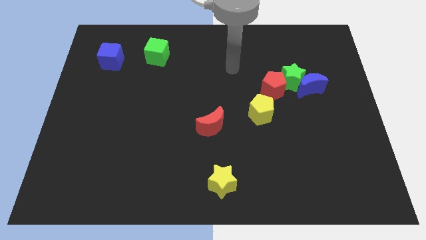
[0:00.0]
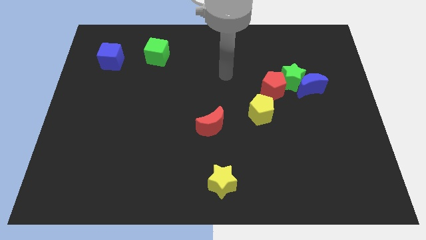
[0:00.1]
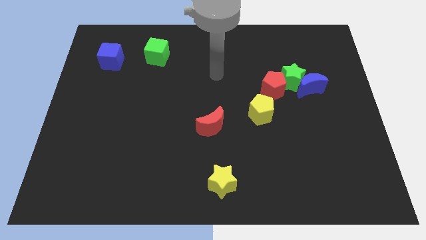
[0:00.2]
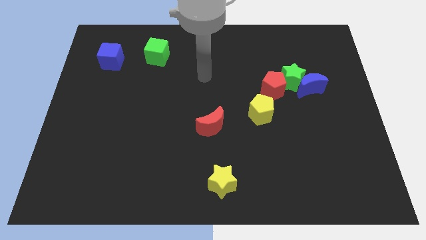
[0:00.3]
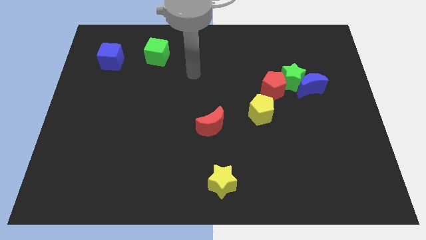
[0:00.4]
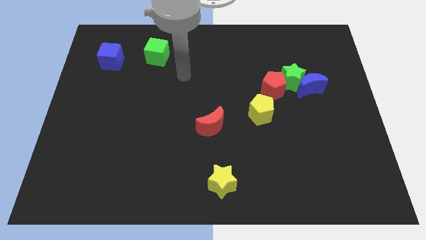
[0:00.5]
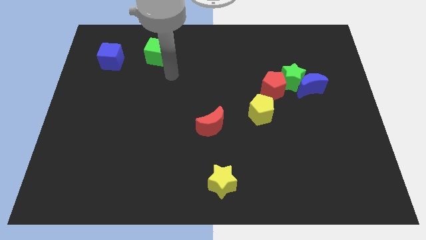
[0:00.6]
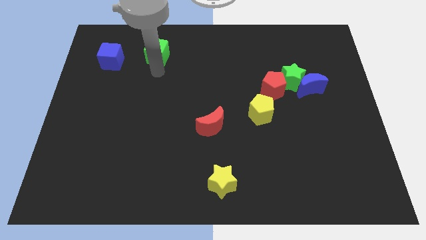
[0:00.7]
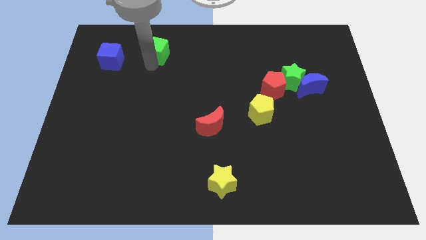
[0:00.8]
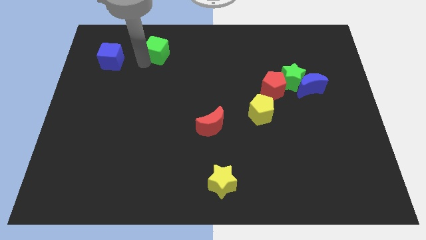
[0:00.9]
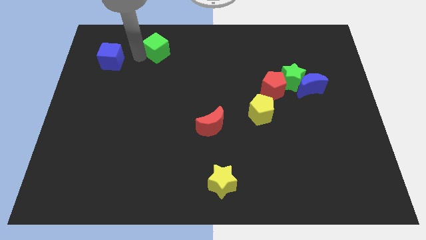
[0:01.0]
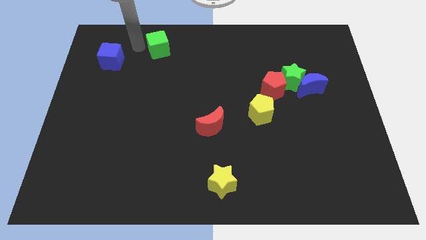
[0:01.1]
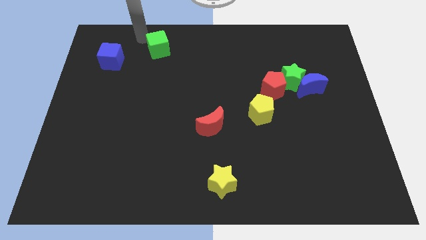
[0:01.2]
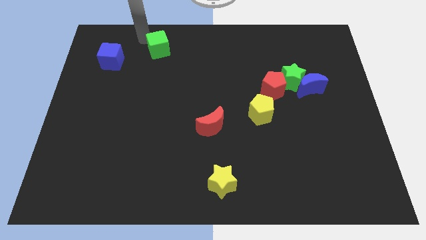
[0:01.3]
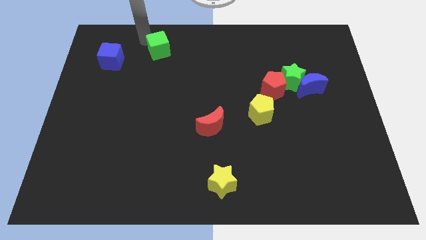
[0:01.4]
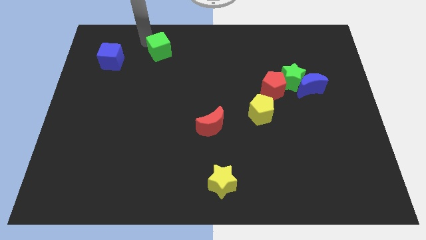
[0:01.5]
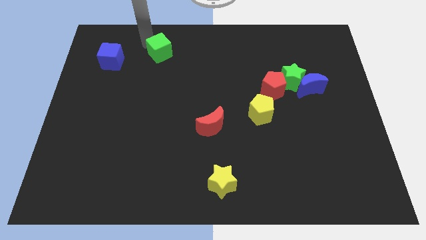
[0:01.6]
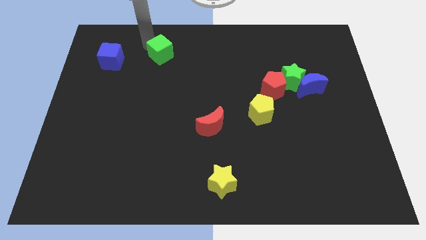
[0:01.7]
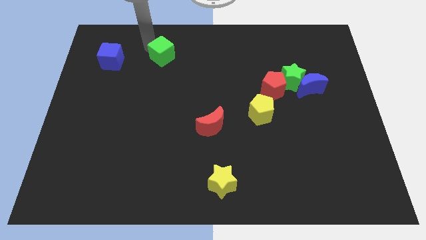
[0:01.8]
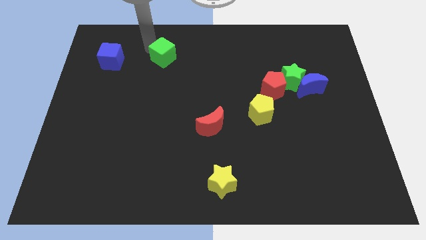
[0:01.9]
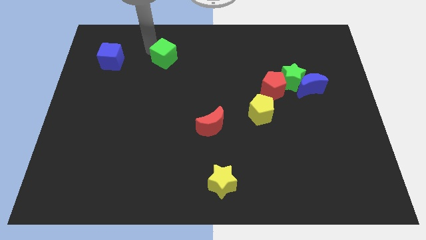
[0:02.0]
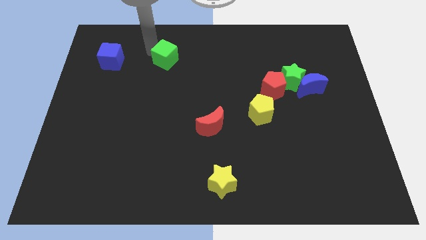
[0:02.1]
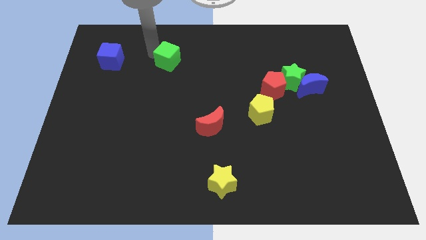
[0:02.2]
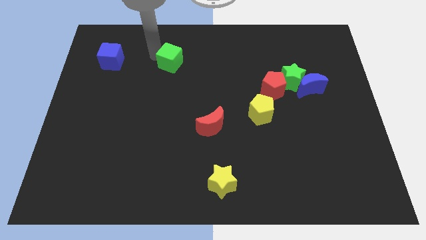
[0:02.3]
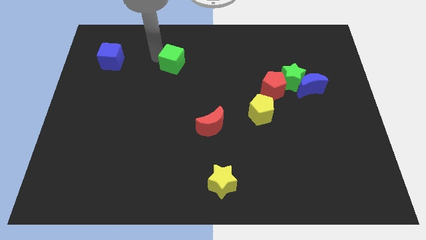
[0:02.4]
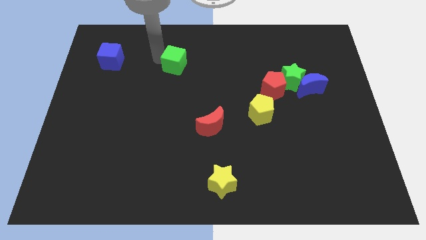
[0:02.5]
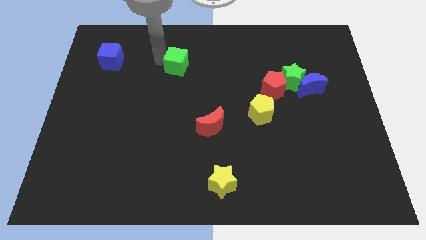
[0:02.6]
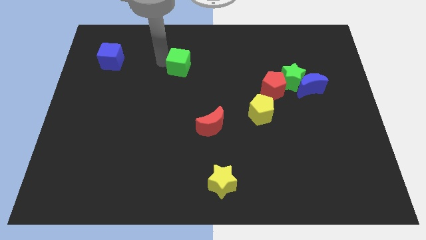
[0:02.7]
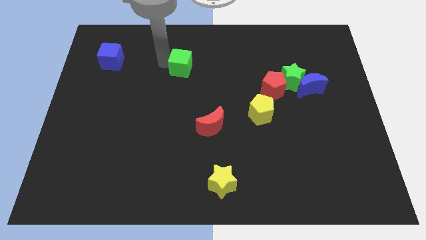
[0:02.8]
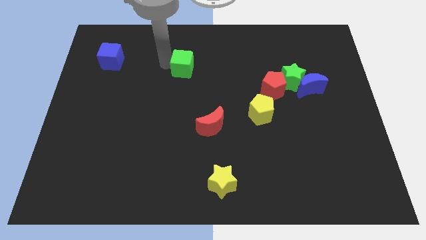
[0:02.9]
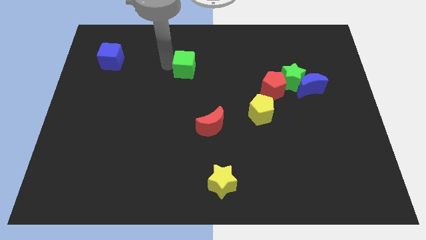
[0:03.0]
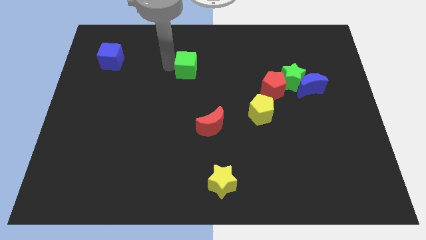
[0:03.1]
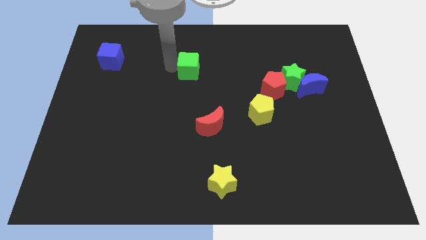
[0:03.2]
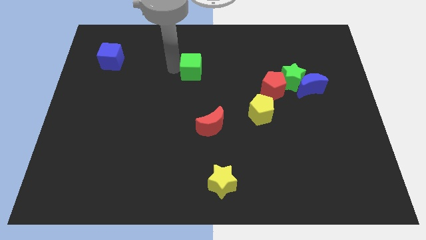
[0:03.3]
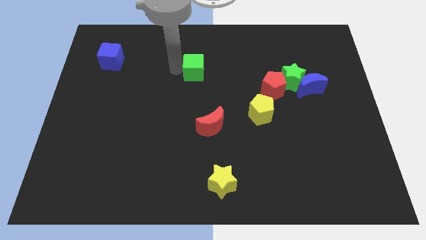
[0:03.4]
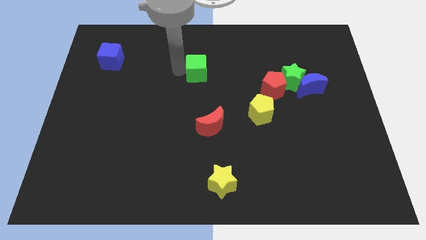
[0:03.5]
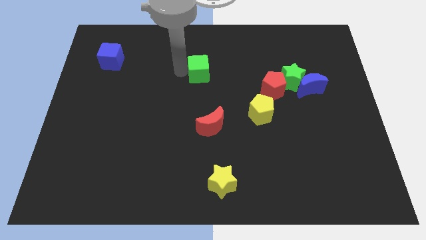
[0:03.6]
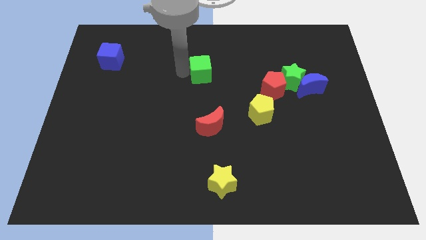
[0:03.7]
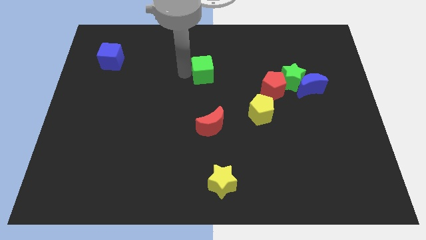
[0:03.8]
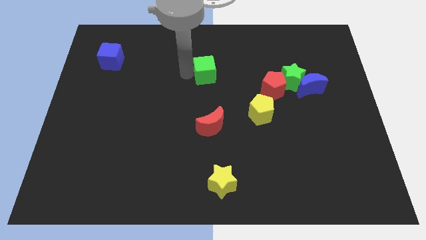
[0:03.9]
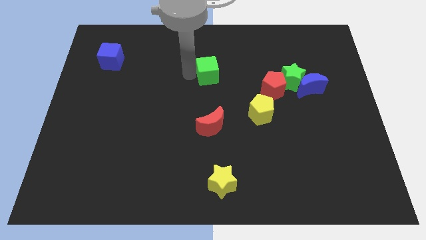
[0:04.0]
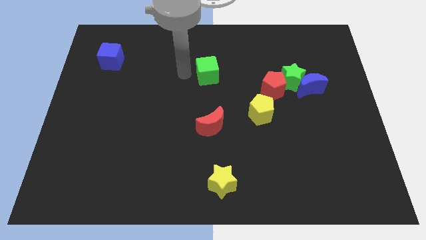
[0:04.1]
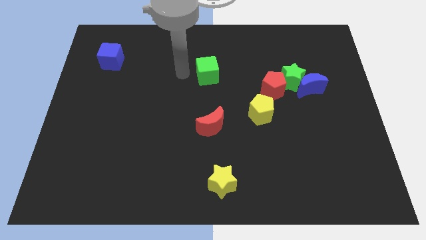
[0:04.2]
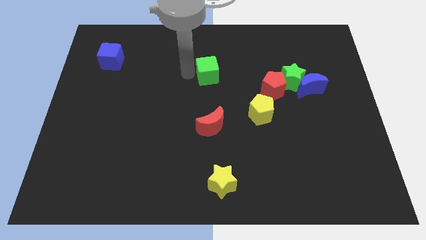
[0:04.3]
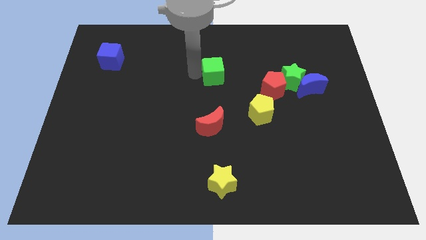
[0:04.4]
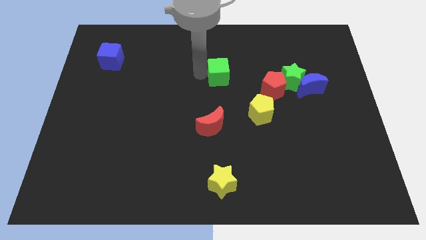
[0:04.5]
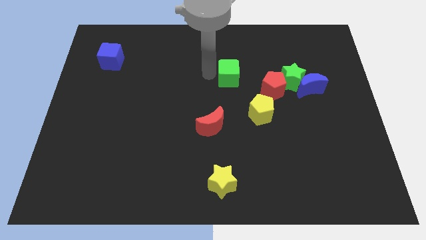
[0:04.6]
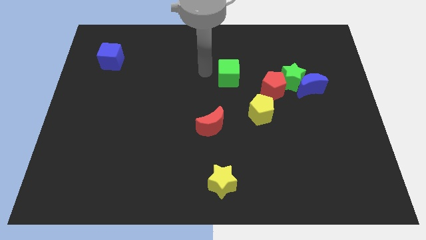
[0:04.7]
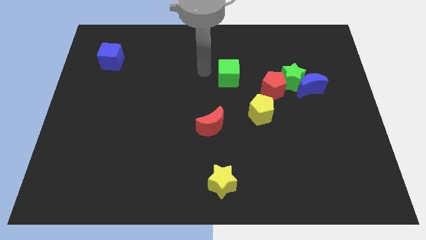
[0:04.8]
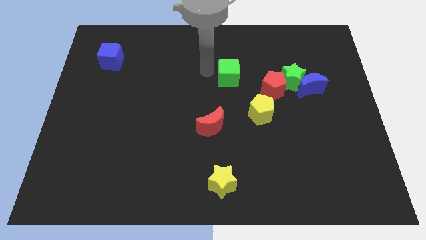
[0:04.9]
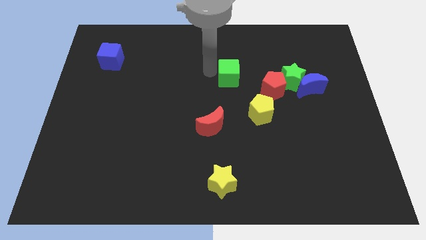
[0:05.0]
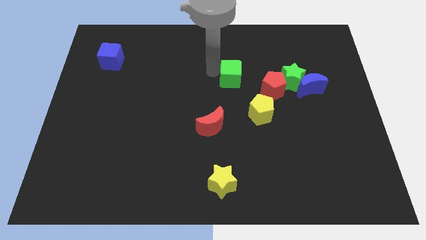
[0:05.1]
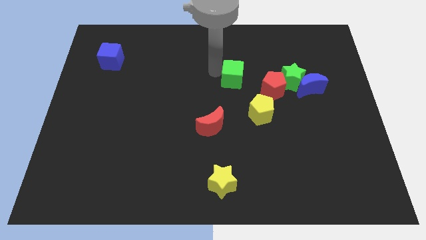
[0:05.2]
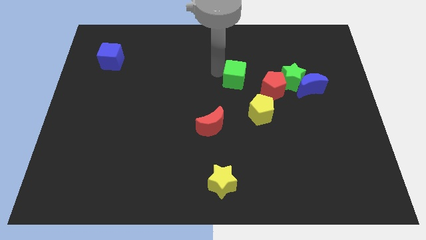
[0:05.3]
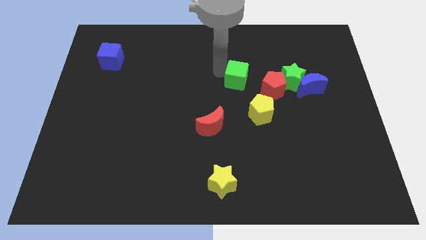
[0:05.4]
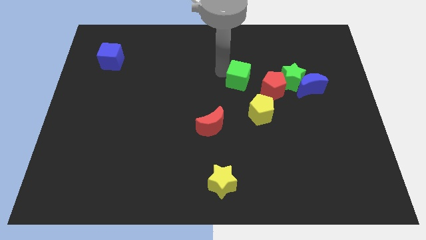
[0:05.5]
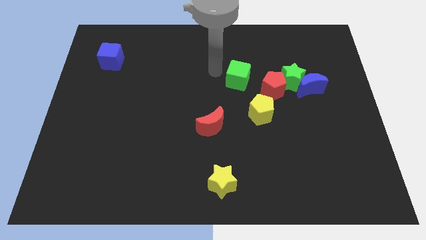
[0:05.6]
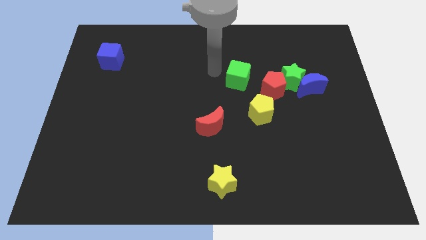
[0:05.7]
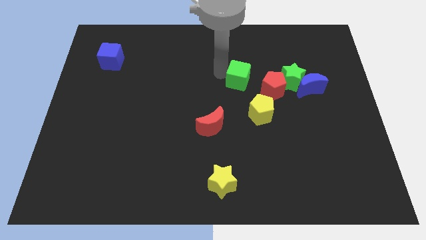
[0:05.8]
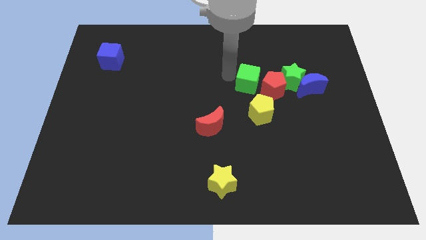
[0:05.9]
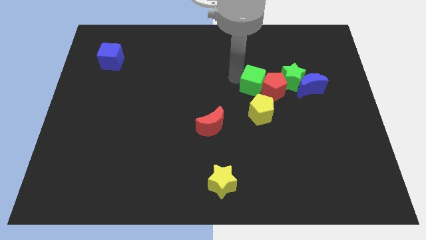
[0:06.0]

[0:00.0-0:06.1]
push the green cube towards the red pentagon

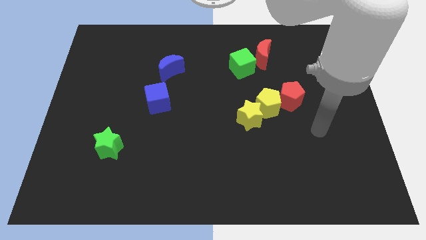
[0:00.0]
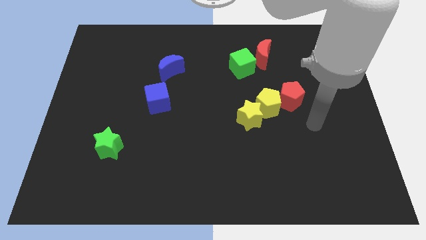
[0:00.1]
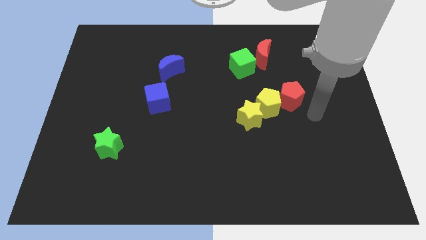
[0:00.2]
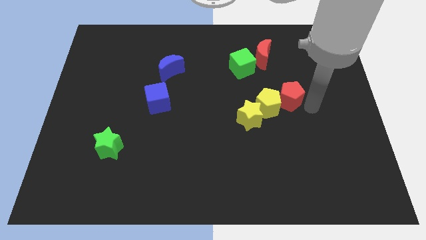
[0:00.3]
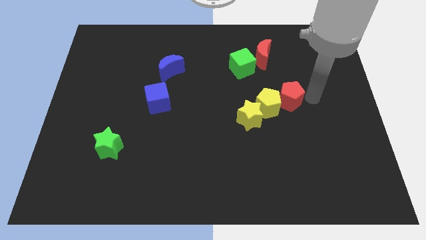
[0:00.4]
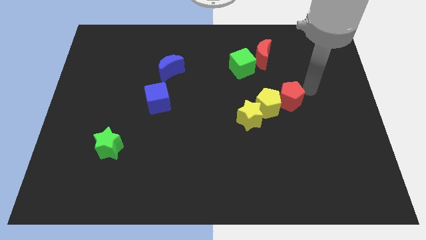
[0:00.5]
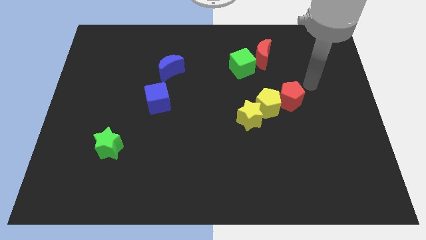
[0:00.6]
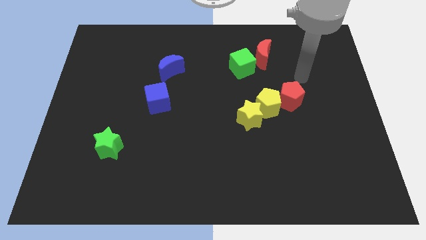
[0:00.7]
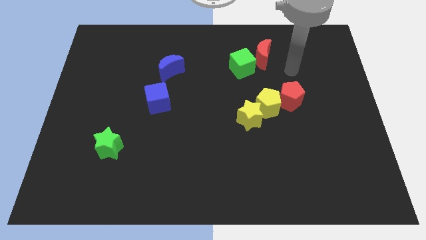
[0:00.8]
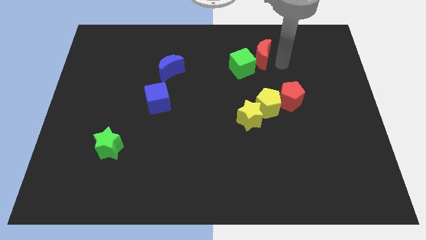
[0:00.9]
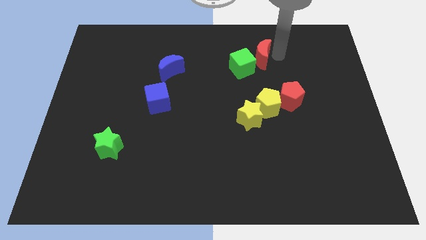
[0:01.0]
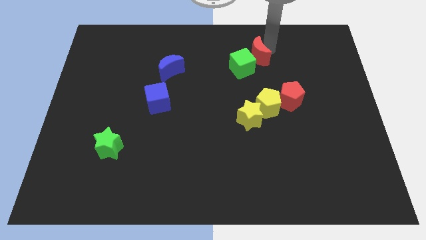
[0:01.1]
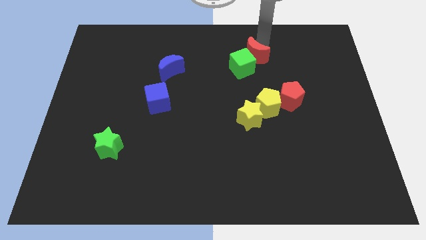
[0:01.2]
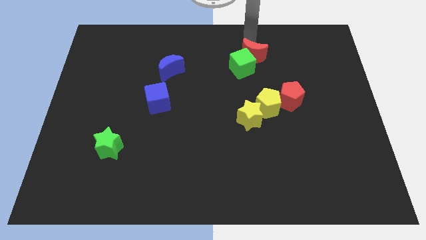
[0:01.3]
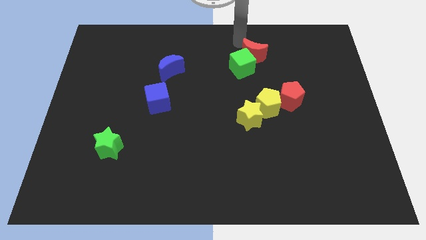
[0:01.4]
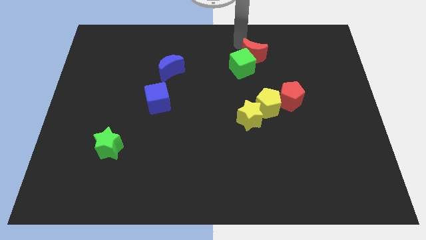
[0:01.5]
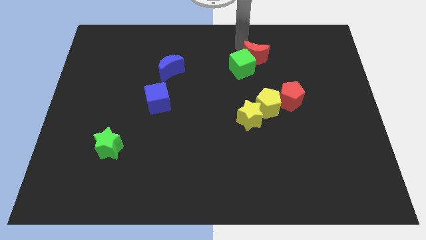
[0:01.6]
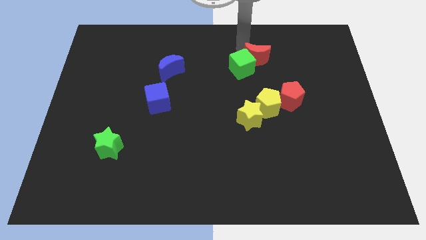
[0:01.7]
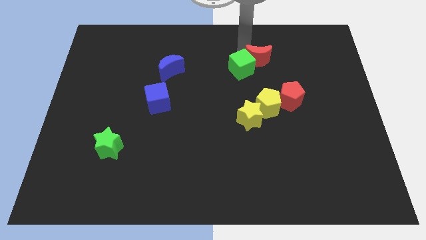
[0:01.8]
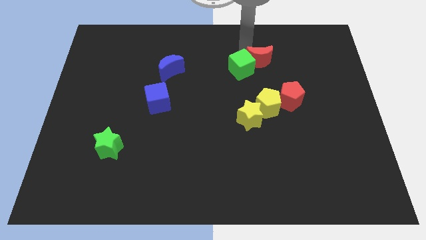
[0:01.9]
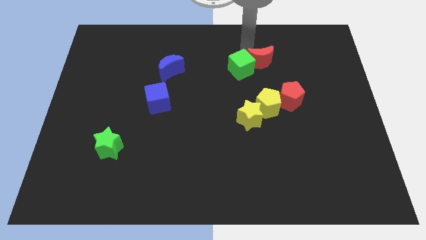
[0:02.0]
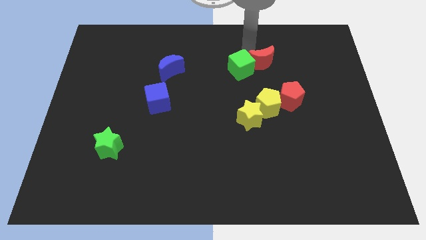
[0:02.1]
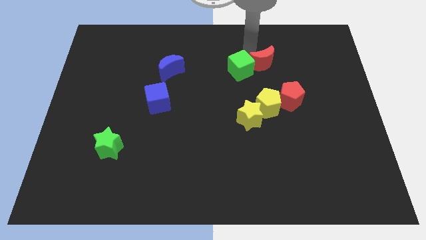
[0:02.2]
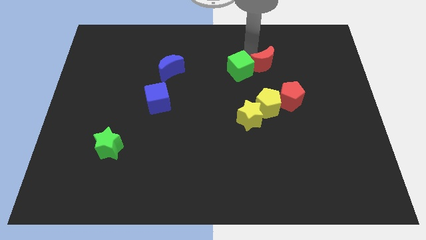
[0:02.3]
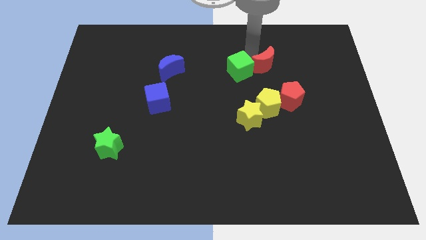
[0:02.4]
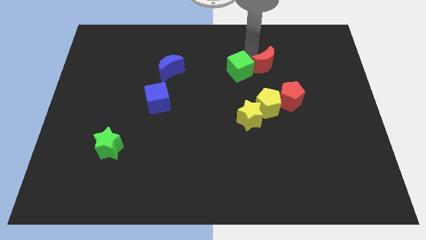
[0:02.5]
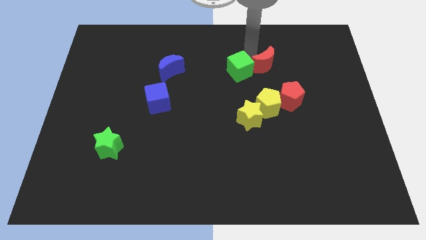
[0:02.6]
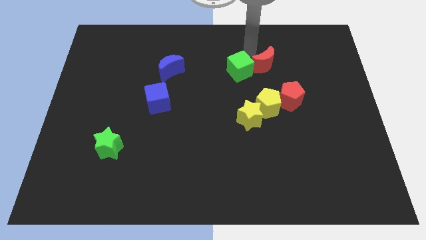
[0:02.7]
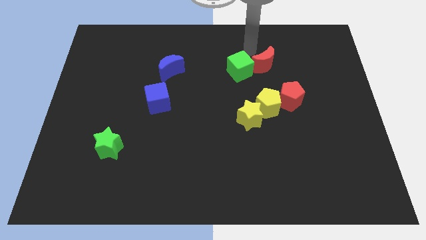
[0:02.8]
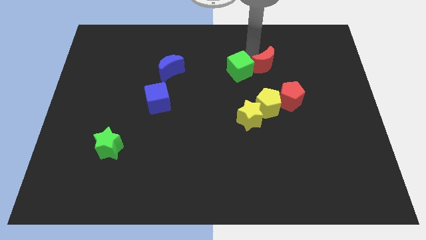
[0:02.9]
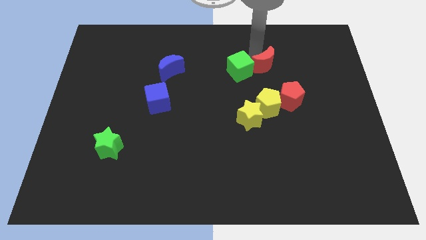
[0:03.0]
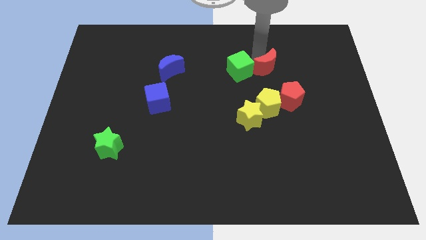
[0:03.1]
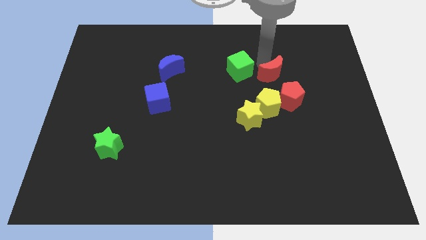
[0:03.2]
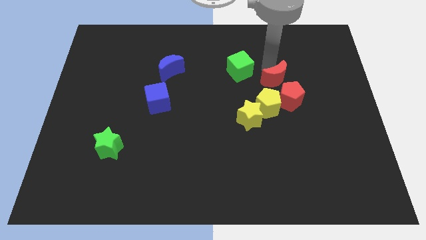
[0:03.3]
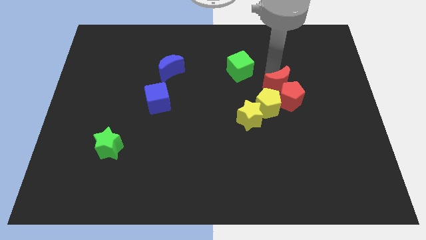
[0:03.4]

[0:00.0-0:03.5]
put the red moon towards the red pentagon
